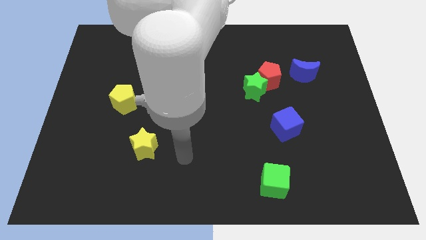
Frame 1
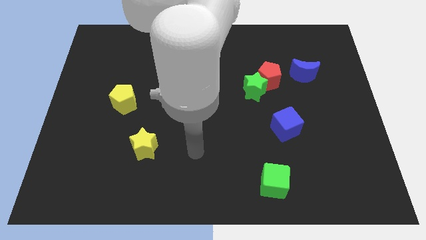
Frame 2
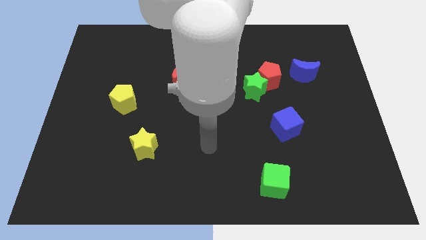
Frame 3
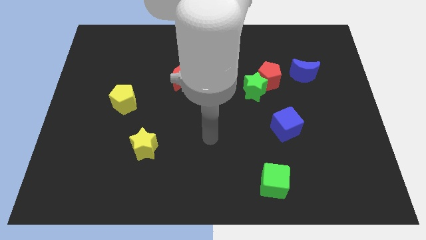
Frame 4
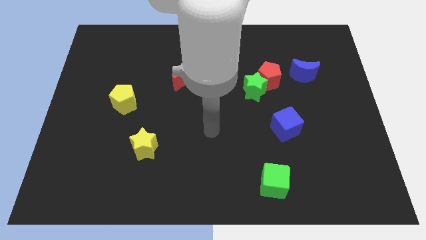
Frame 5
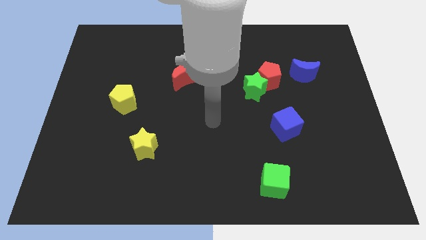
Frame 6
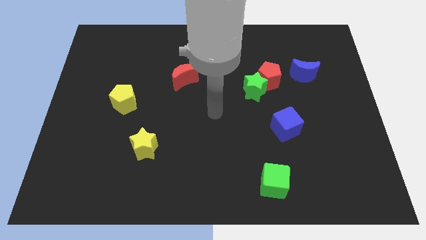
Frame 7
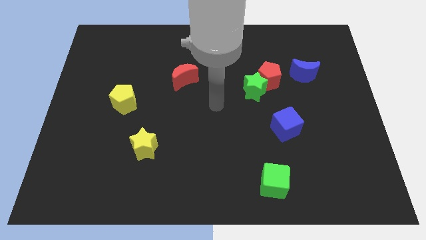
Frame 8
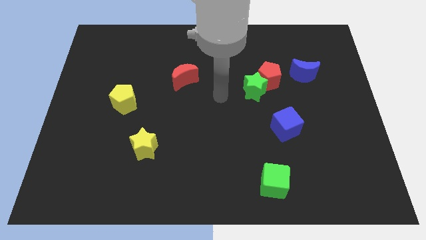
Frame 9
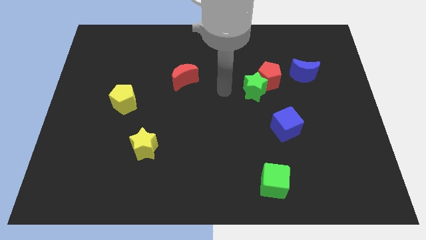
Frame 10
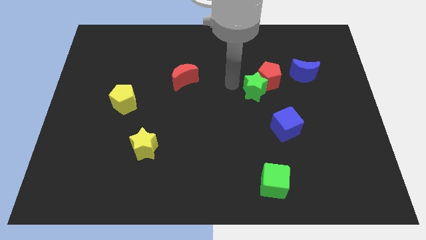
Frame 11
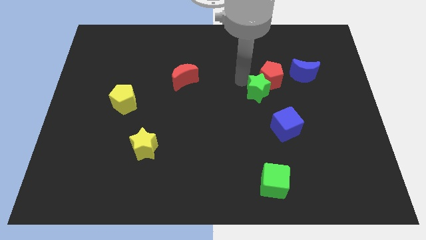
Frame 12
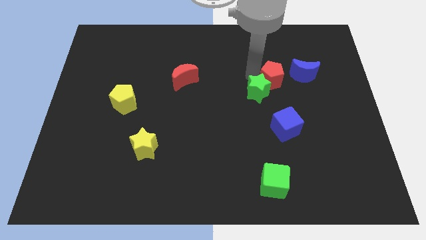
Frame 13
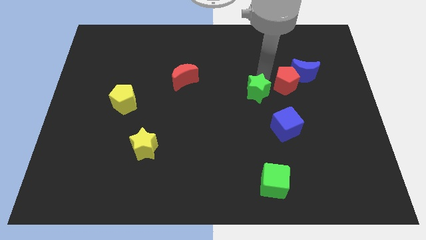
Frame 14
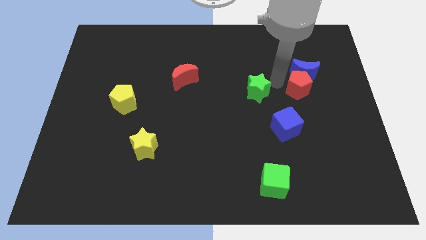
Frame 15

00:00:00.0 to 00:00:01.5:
separate the green star from the red pentagon

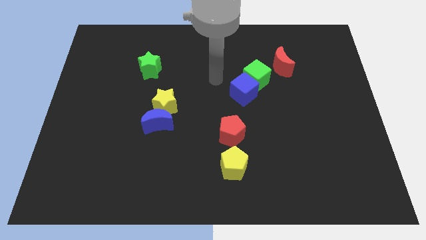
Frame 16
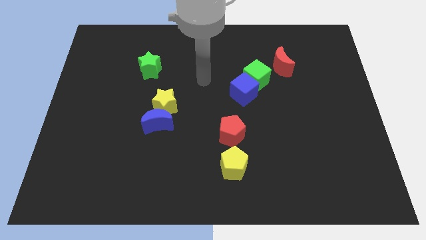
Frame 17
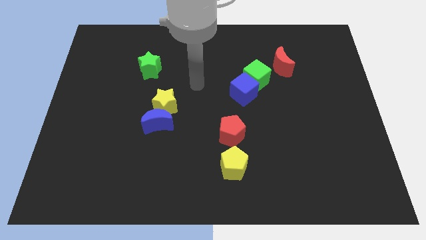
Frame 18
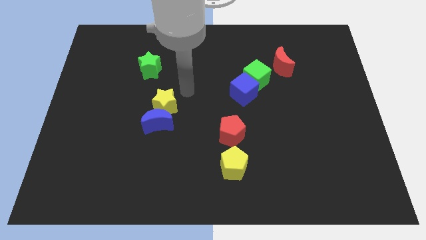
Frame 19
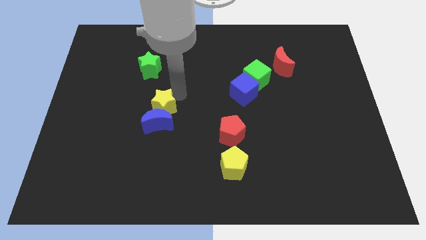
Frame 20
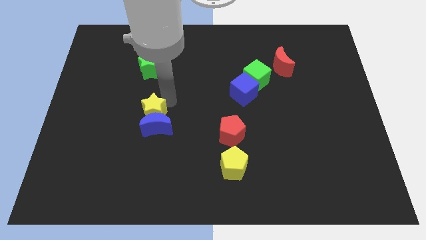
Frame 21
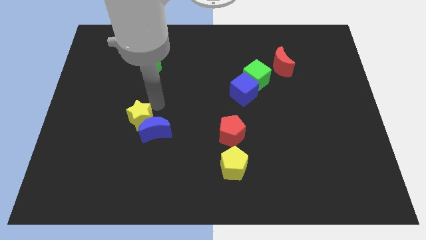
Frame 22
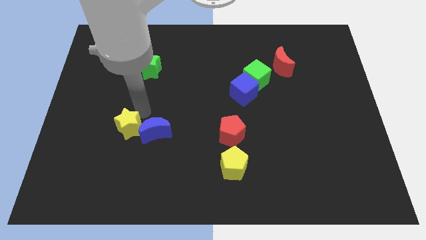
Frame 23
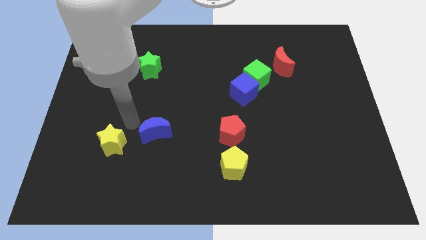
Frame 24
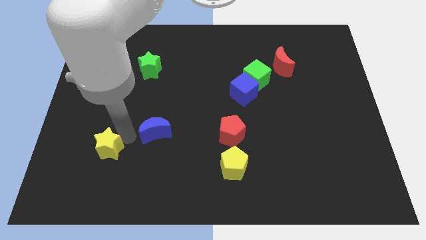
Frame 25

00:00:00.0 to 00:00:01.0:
pull the blue moon apart from the yellow star

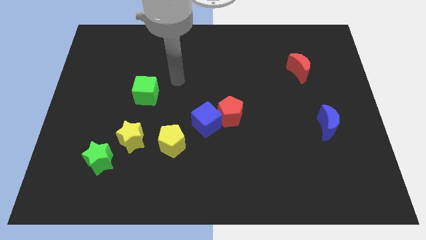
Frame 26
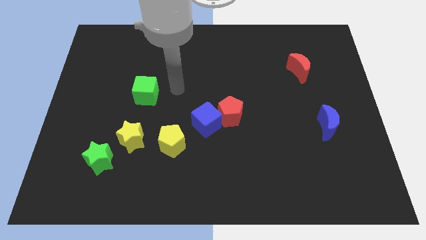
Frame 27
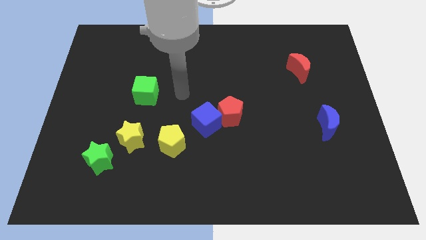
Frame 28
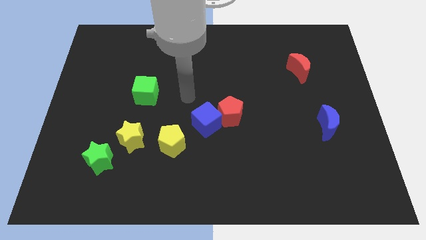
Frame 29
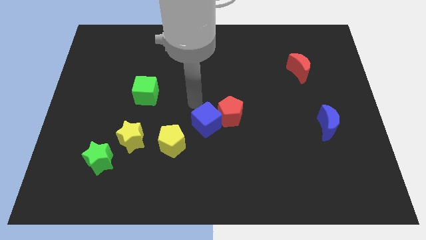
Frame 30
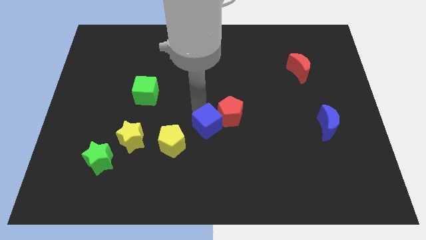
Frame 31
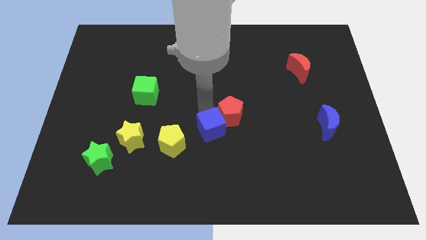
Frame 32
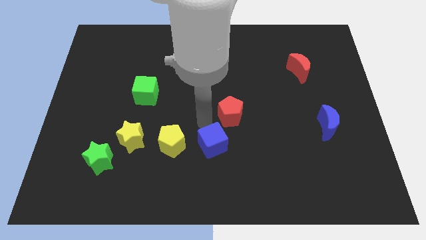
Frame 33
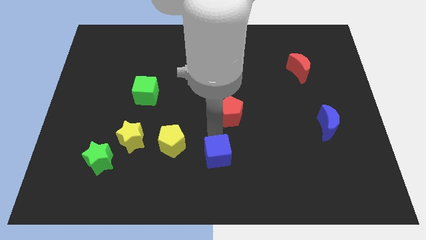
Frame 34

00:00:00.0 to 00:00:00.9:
separate the red pentagon from the blue cube

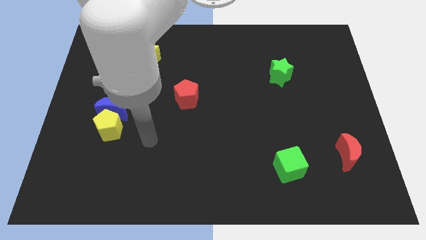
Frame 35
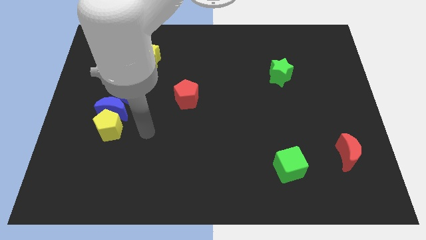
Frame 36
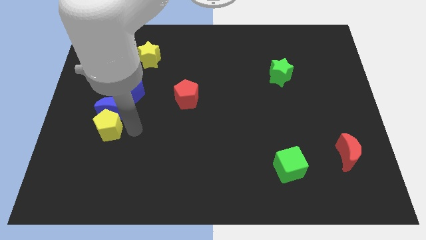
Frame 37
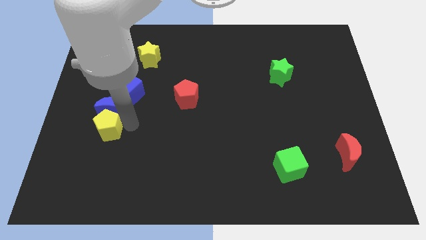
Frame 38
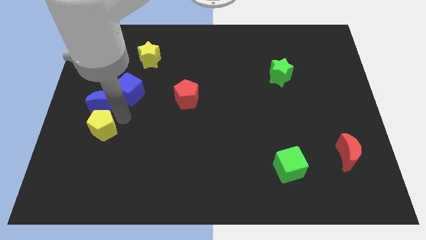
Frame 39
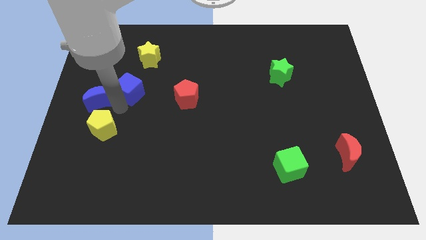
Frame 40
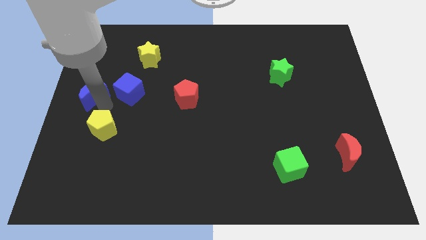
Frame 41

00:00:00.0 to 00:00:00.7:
move the yellow pentagon away from the blue moon

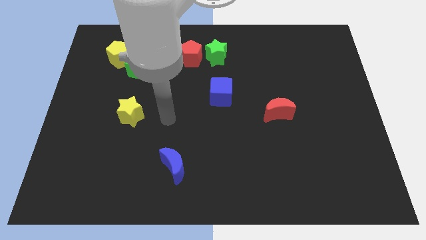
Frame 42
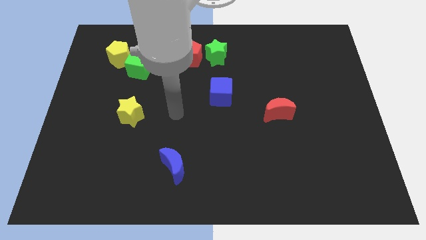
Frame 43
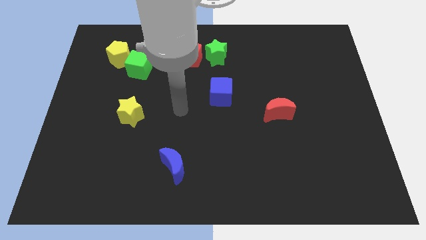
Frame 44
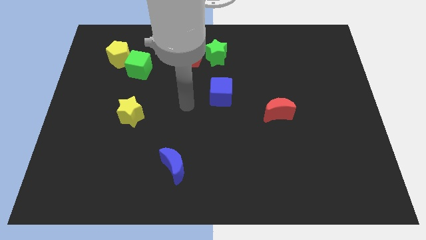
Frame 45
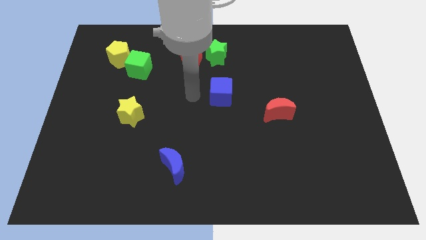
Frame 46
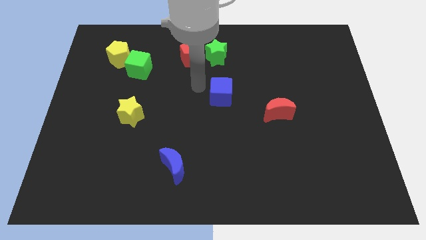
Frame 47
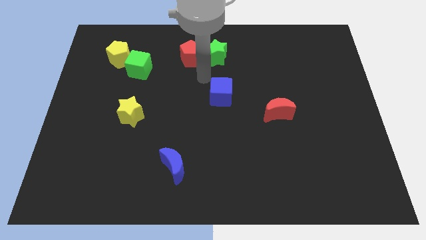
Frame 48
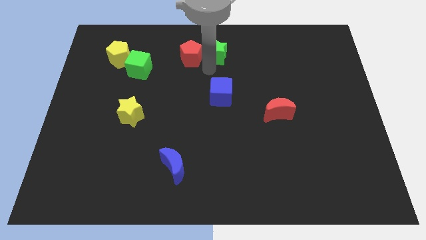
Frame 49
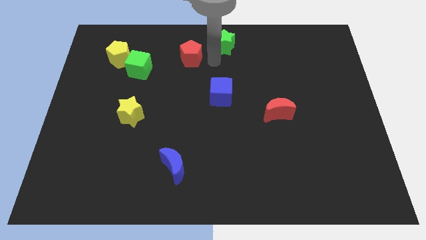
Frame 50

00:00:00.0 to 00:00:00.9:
pull the red pentagon apart from the green star

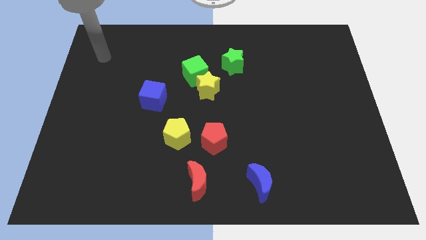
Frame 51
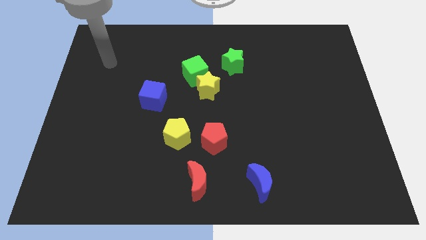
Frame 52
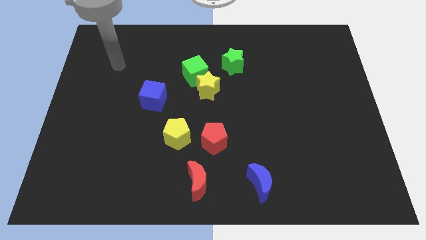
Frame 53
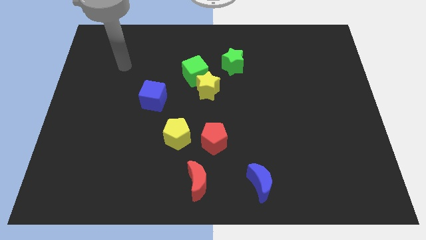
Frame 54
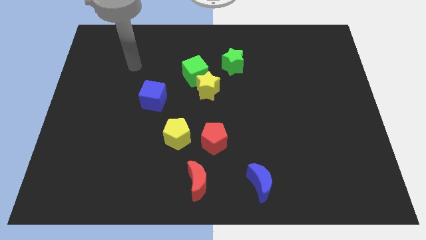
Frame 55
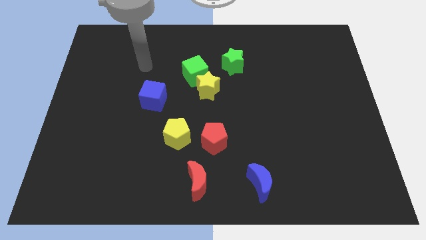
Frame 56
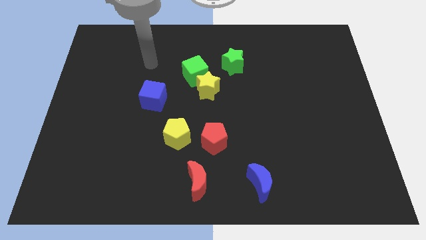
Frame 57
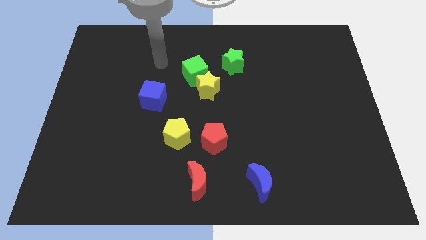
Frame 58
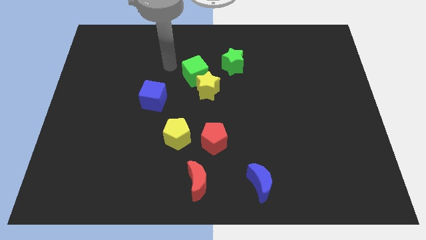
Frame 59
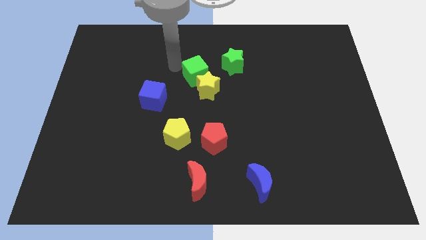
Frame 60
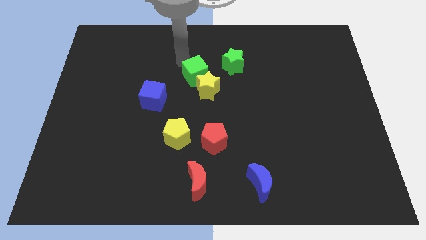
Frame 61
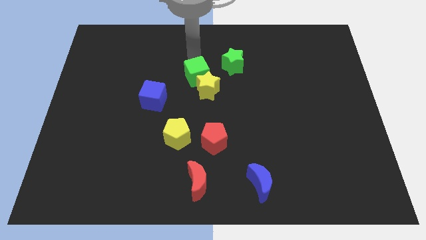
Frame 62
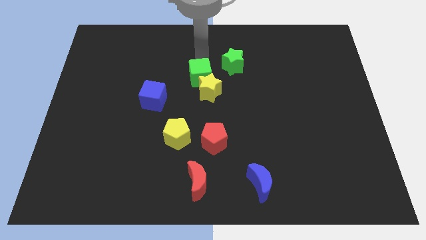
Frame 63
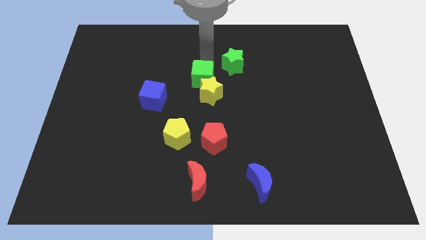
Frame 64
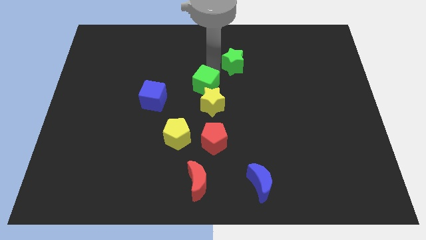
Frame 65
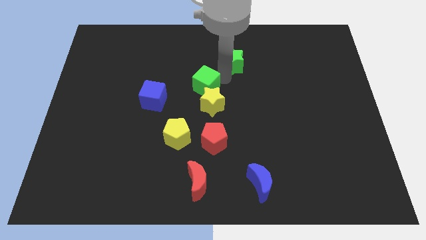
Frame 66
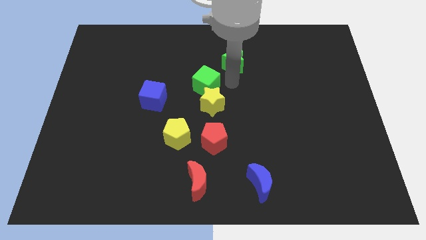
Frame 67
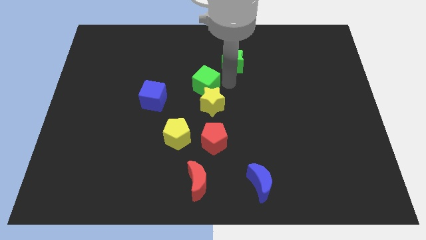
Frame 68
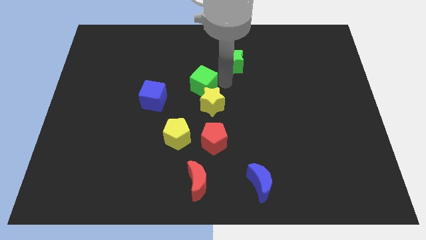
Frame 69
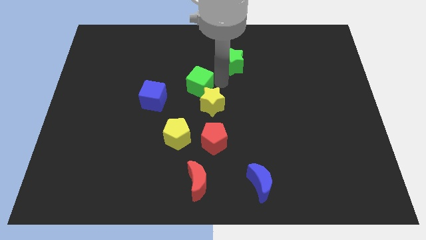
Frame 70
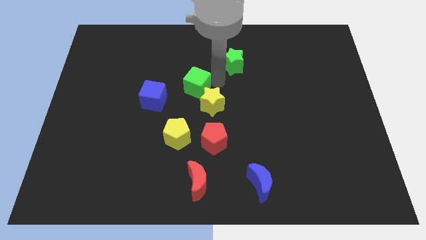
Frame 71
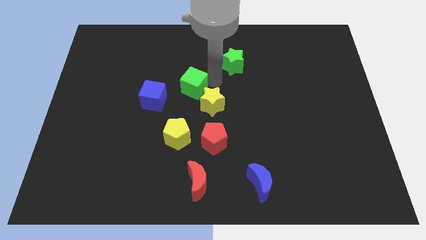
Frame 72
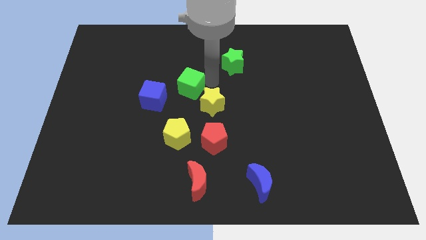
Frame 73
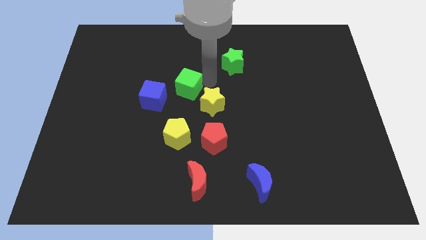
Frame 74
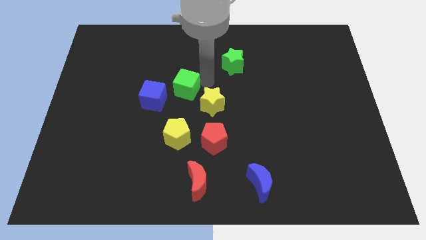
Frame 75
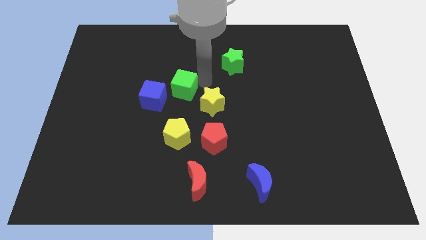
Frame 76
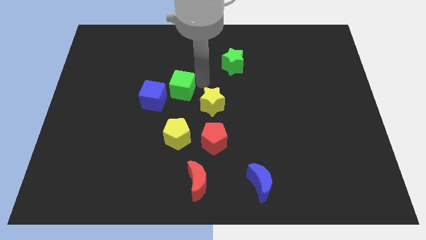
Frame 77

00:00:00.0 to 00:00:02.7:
separate the green cube from the yellow star and green star

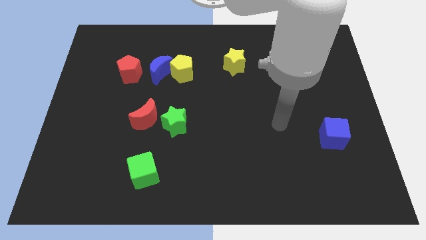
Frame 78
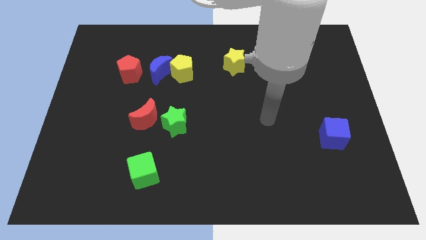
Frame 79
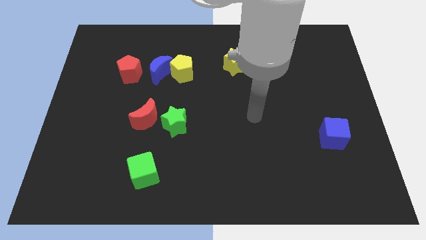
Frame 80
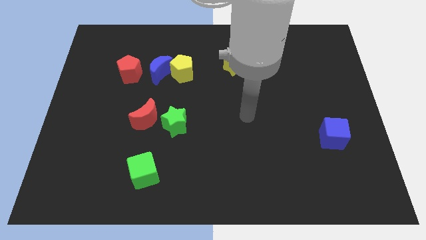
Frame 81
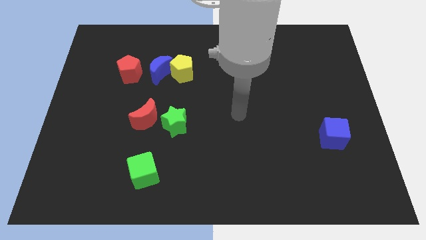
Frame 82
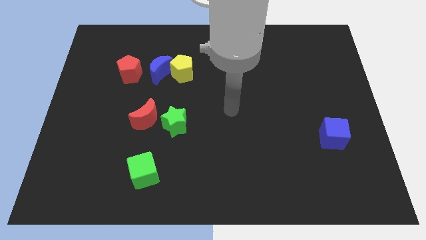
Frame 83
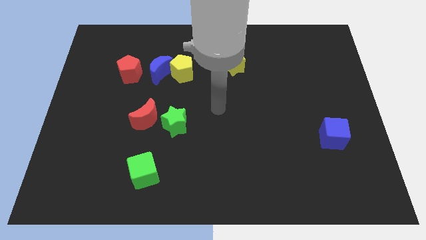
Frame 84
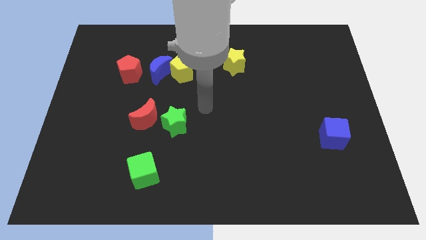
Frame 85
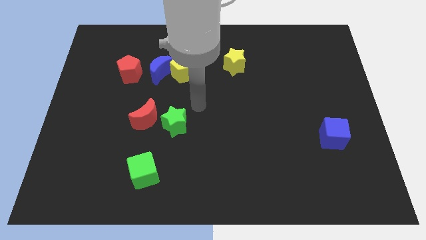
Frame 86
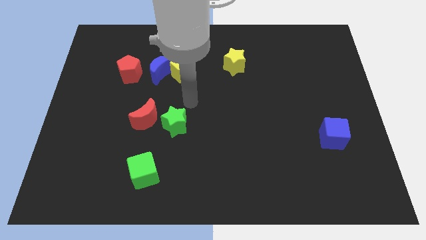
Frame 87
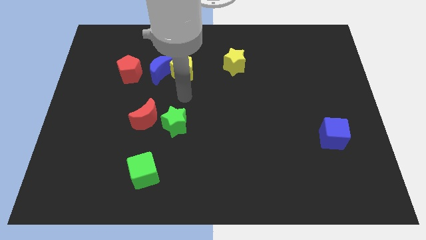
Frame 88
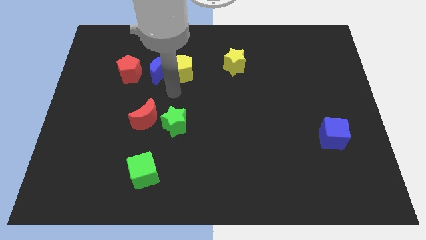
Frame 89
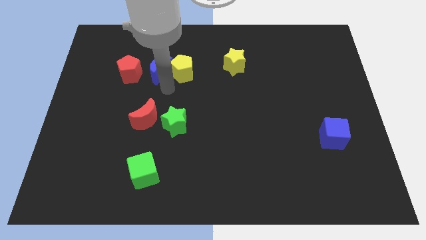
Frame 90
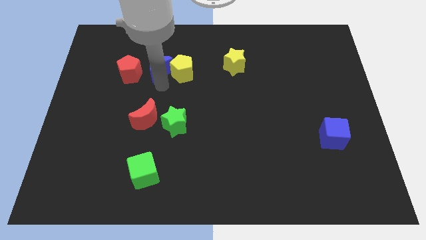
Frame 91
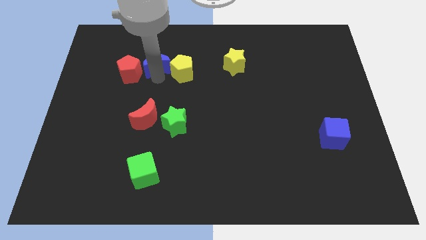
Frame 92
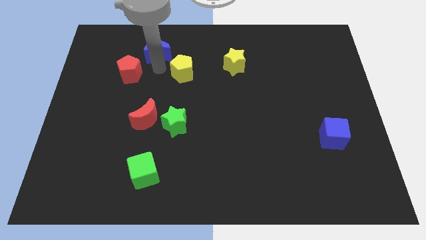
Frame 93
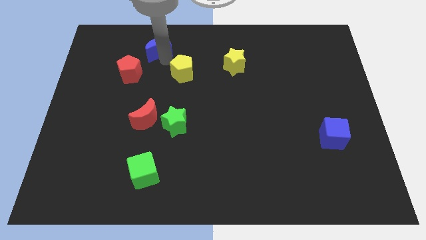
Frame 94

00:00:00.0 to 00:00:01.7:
separate the yellow pentagon from the blue moon
